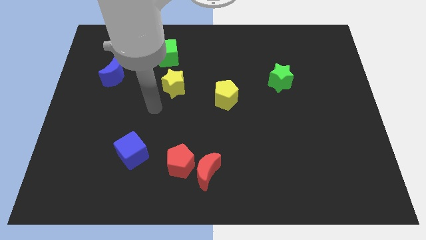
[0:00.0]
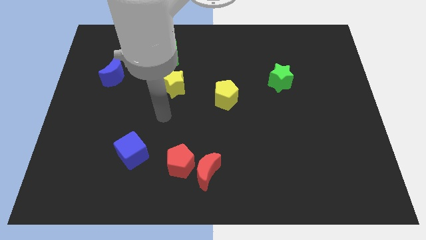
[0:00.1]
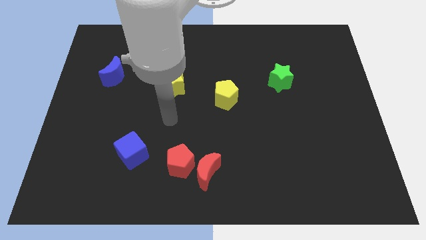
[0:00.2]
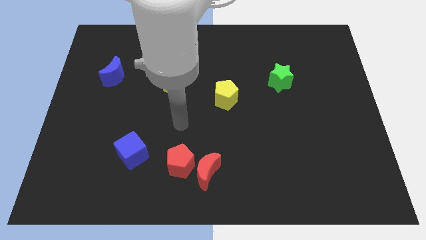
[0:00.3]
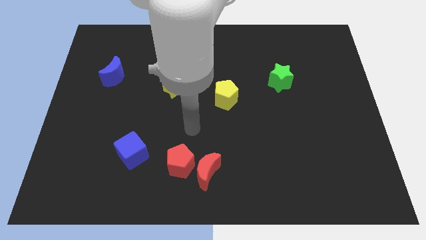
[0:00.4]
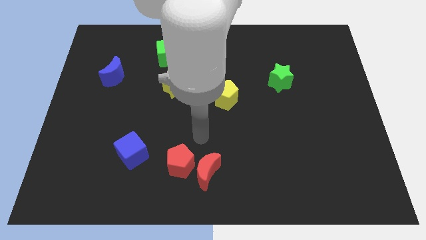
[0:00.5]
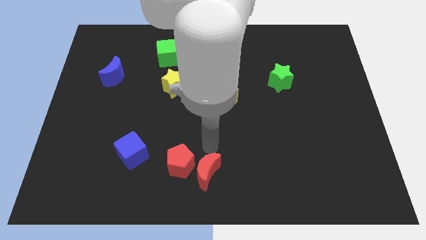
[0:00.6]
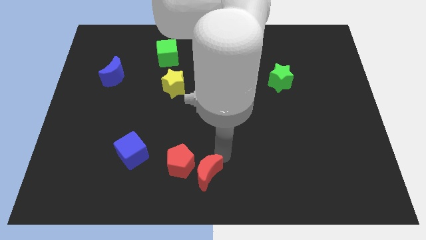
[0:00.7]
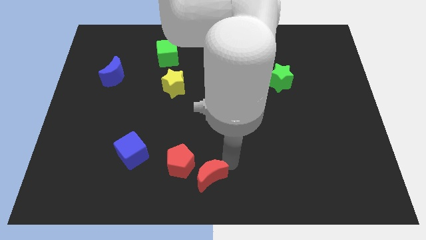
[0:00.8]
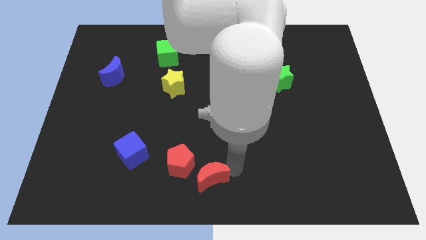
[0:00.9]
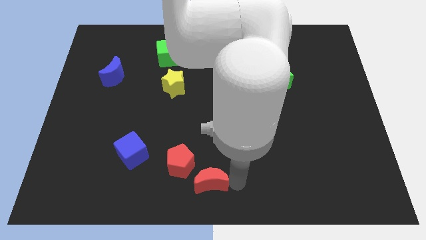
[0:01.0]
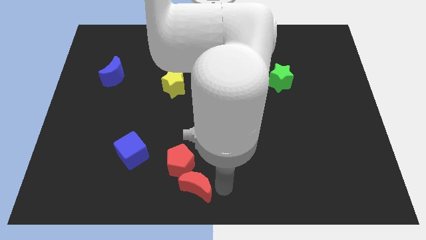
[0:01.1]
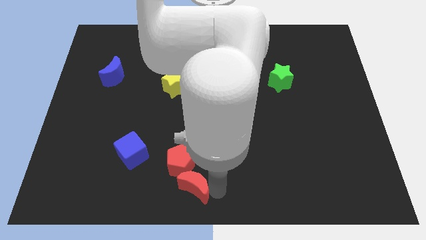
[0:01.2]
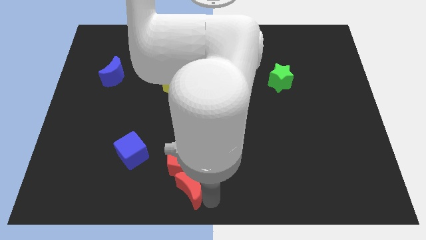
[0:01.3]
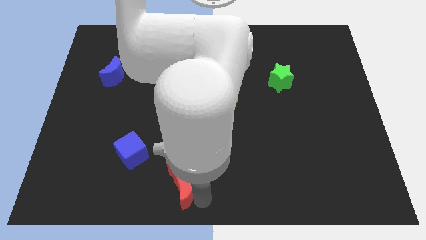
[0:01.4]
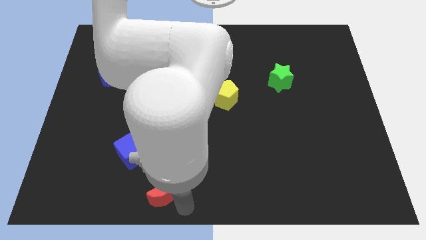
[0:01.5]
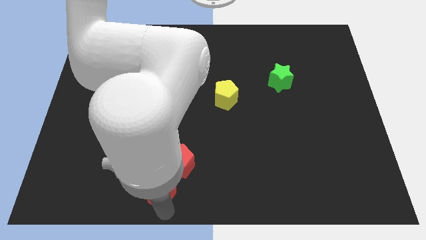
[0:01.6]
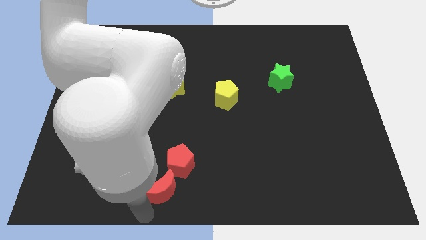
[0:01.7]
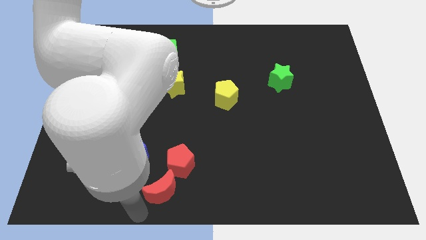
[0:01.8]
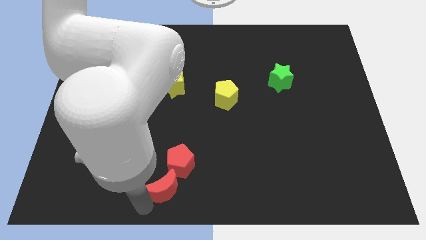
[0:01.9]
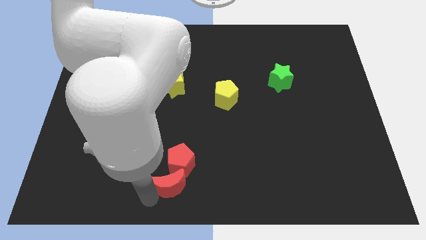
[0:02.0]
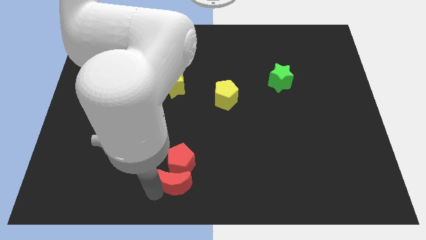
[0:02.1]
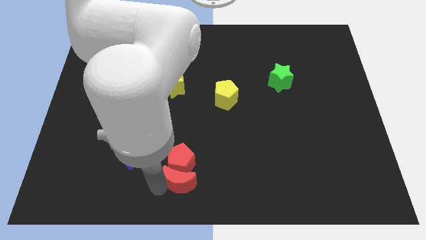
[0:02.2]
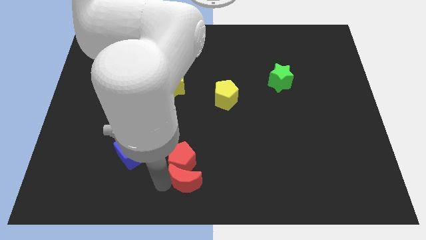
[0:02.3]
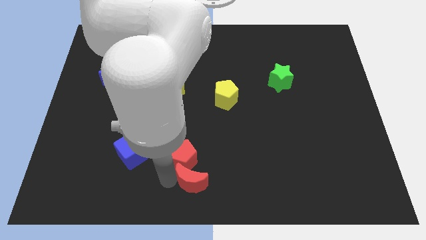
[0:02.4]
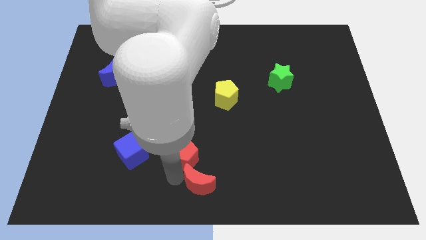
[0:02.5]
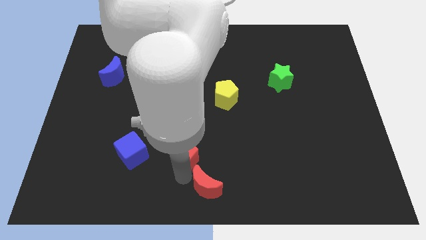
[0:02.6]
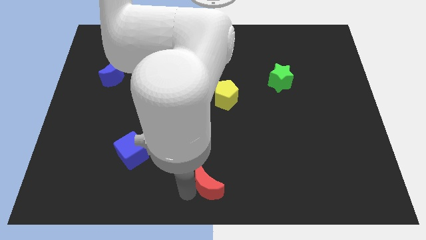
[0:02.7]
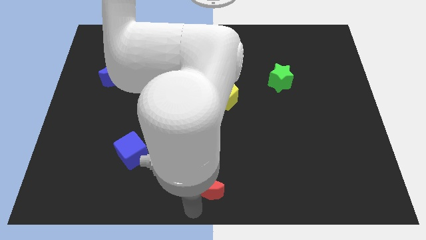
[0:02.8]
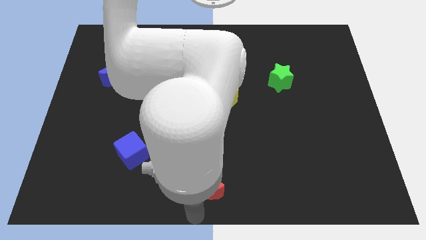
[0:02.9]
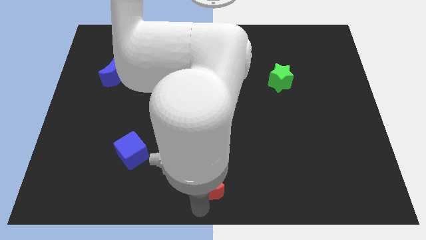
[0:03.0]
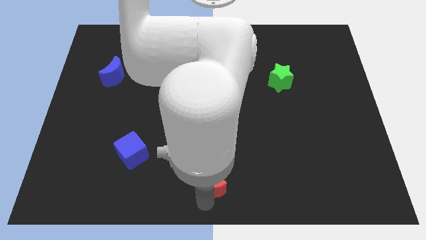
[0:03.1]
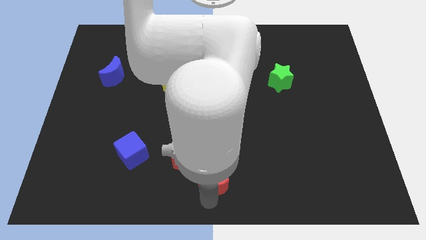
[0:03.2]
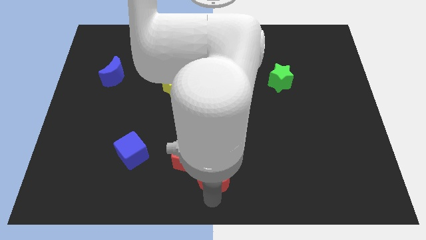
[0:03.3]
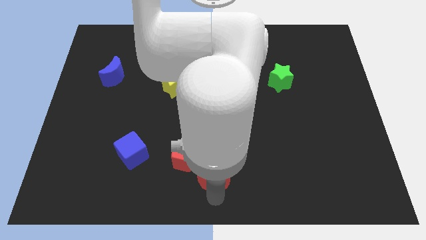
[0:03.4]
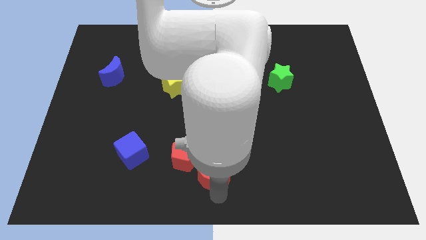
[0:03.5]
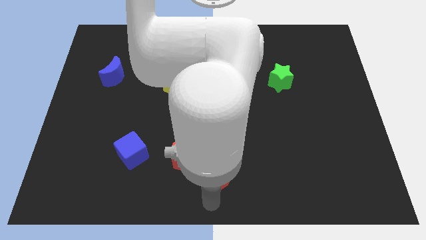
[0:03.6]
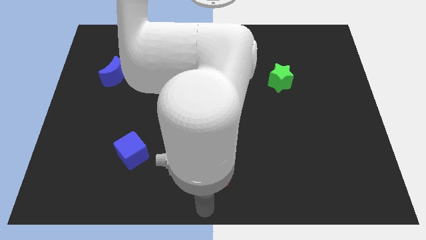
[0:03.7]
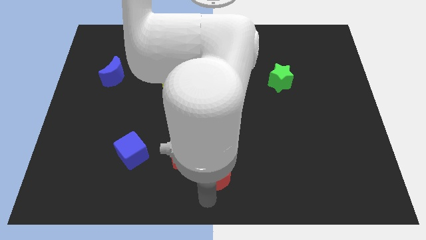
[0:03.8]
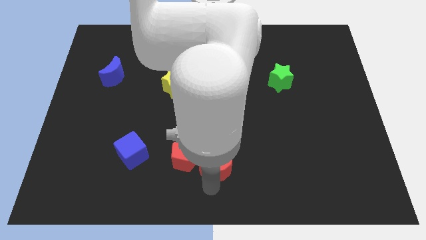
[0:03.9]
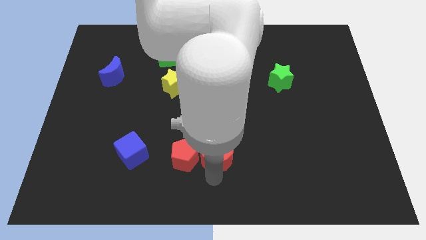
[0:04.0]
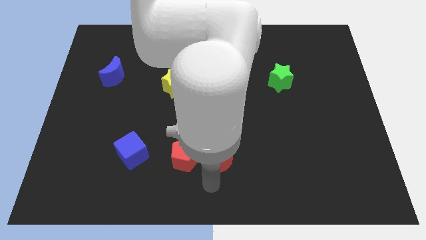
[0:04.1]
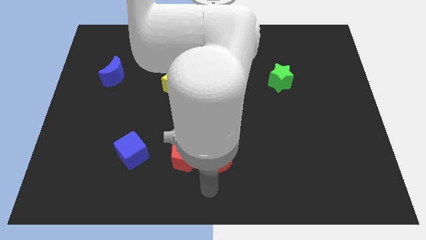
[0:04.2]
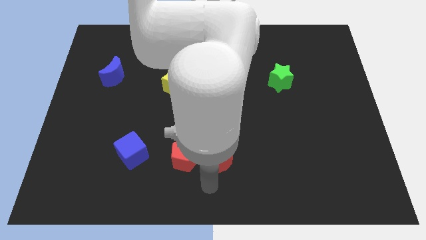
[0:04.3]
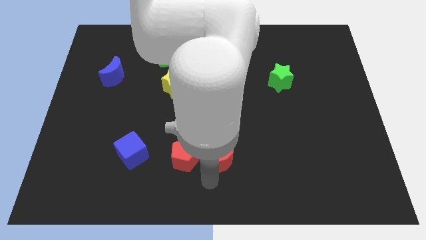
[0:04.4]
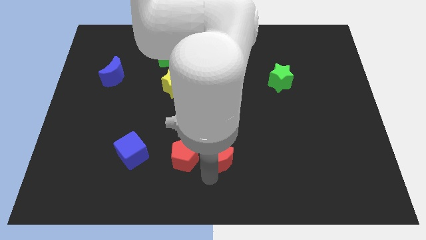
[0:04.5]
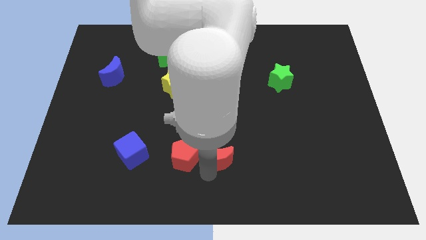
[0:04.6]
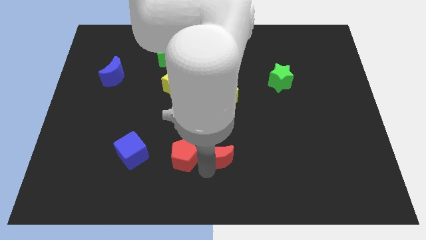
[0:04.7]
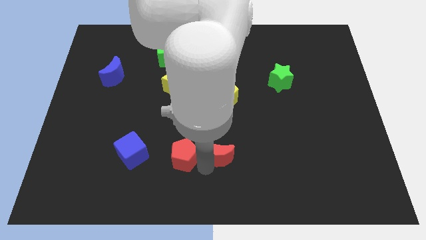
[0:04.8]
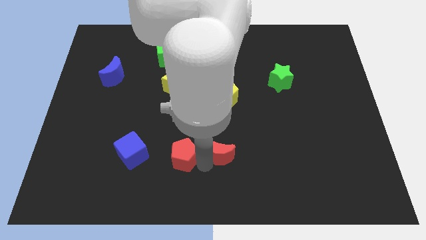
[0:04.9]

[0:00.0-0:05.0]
put the red moon to the bottom side of the yellow pentagon

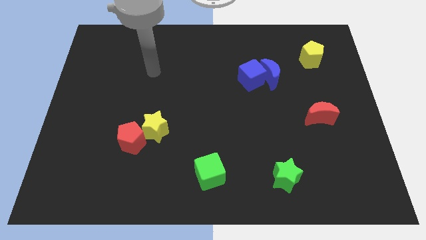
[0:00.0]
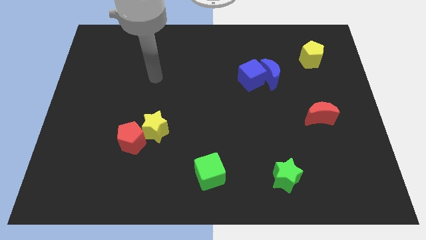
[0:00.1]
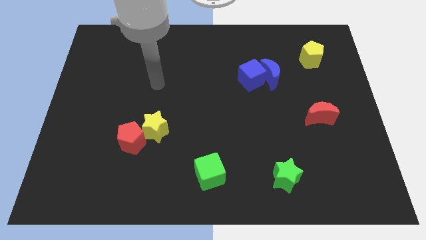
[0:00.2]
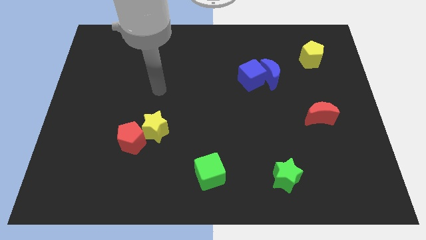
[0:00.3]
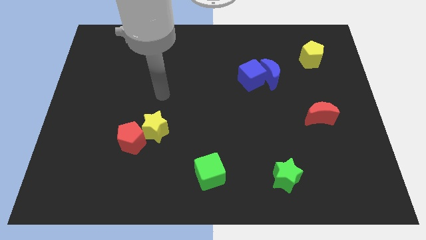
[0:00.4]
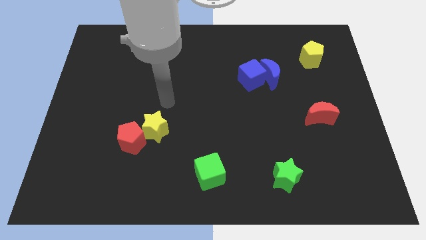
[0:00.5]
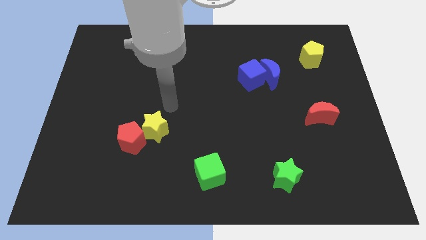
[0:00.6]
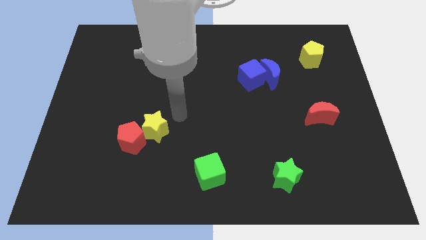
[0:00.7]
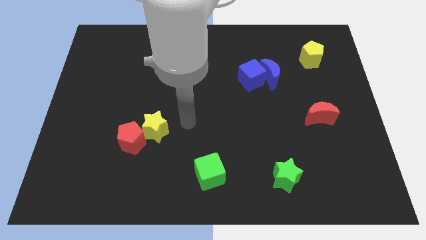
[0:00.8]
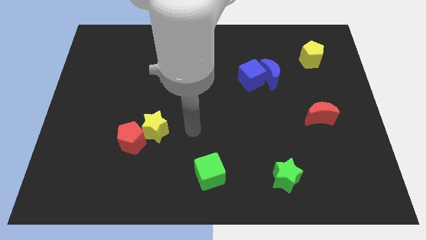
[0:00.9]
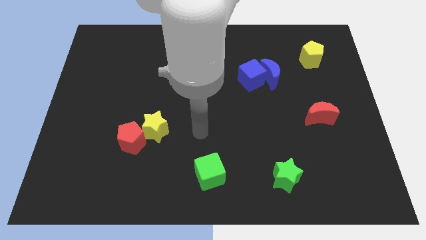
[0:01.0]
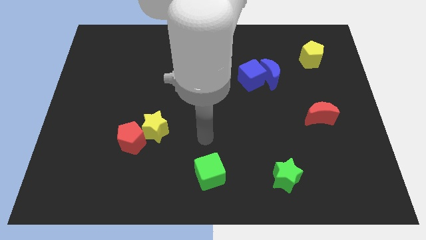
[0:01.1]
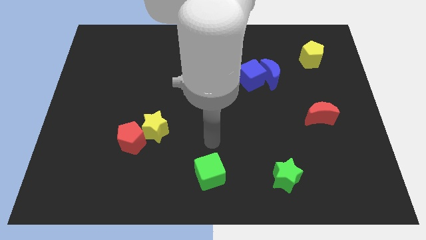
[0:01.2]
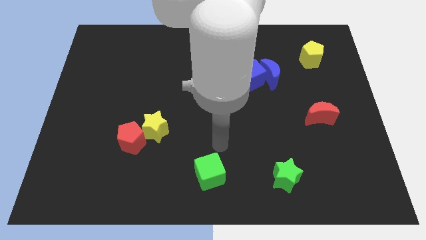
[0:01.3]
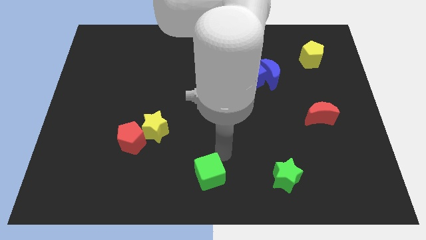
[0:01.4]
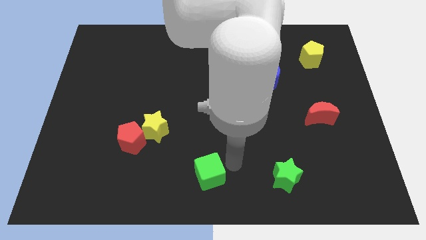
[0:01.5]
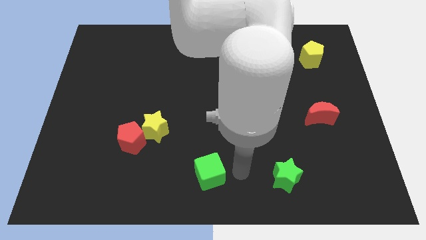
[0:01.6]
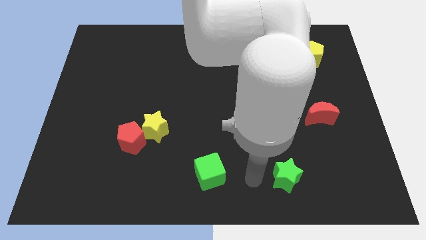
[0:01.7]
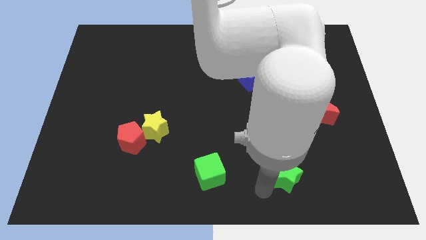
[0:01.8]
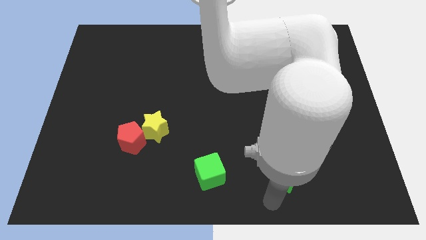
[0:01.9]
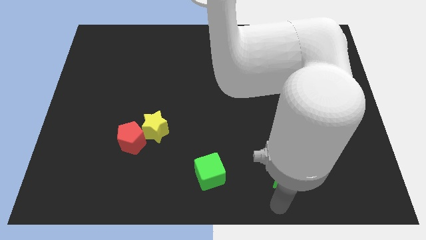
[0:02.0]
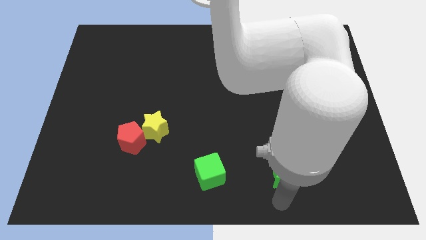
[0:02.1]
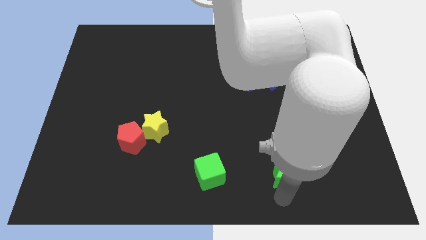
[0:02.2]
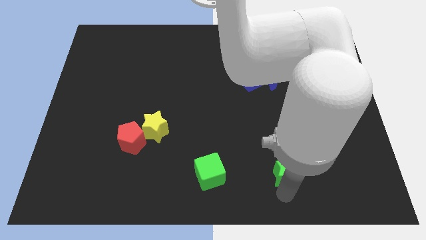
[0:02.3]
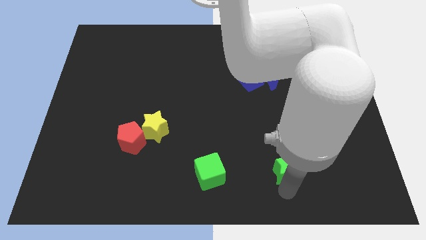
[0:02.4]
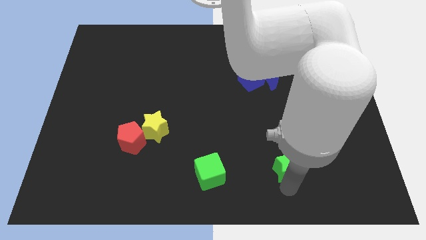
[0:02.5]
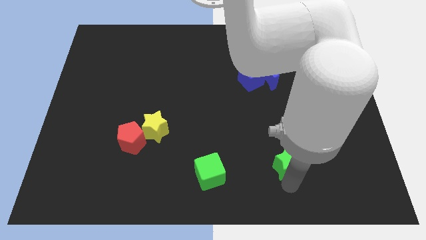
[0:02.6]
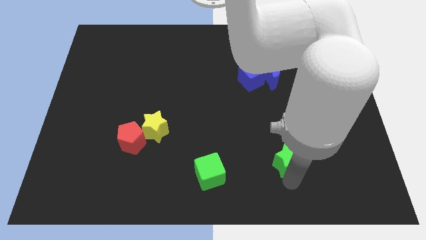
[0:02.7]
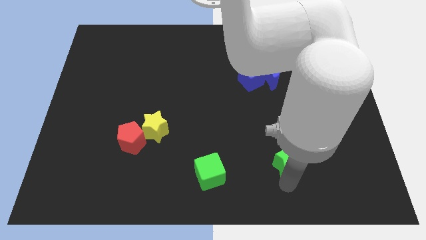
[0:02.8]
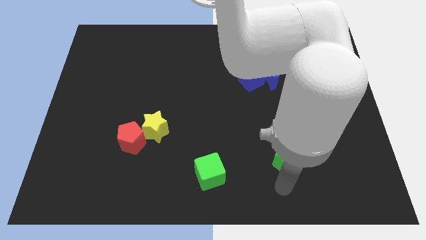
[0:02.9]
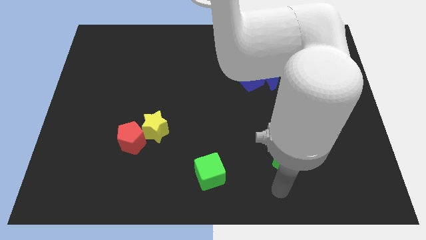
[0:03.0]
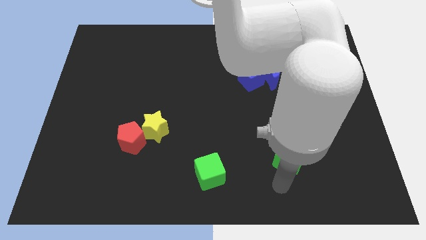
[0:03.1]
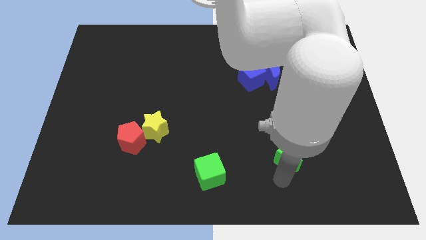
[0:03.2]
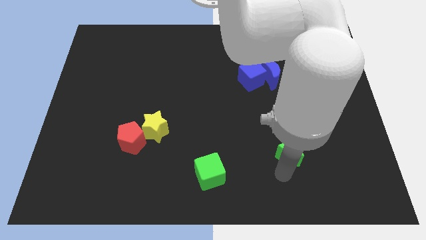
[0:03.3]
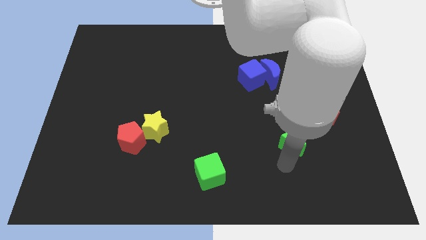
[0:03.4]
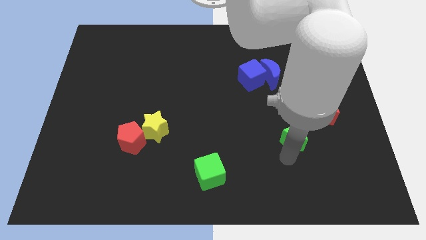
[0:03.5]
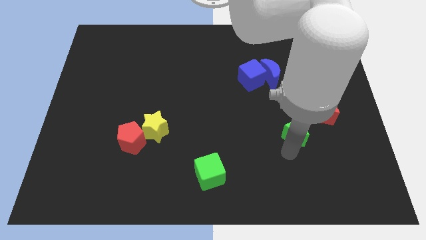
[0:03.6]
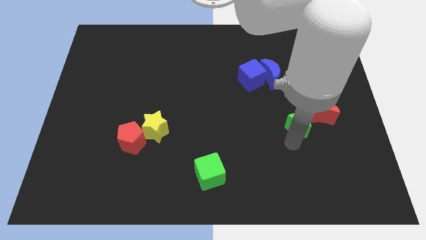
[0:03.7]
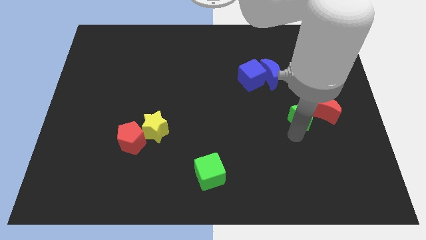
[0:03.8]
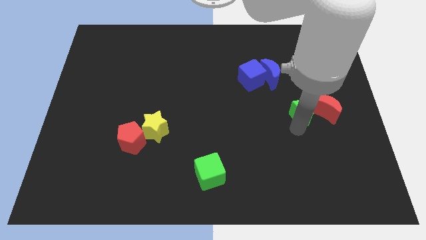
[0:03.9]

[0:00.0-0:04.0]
move the green star to the top left of the red moon
